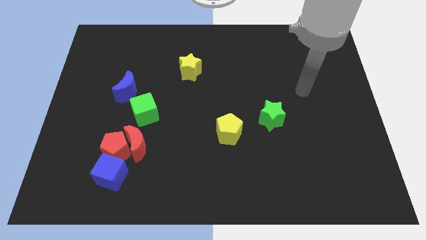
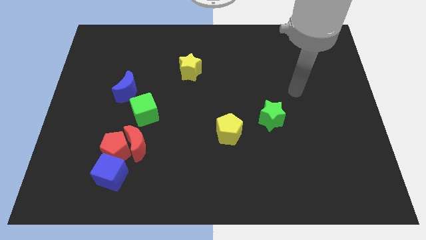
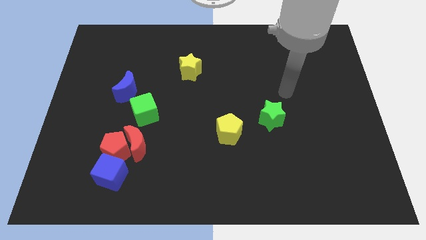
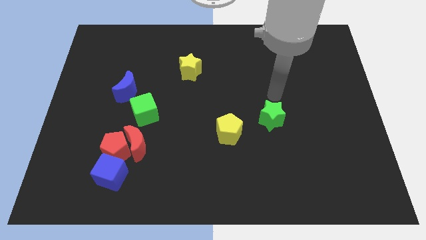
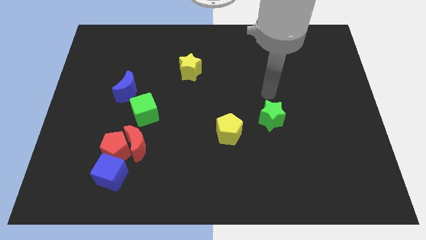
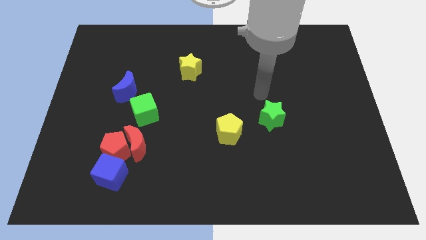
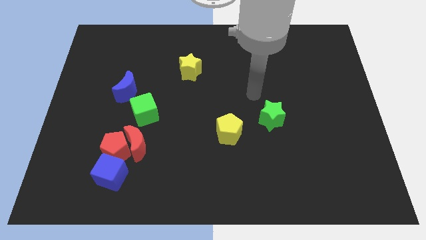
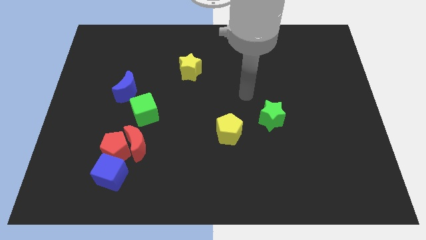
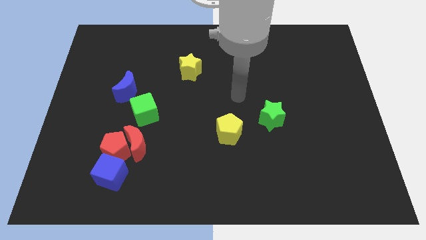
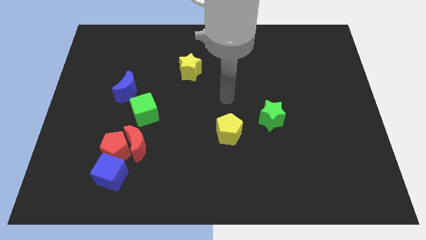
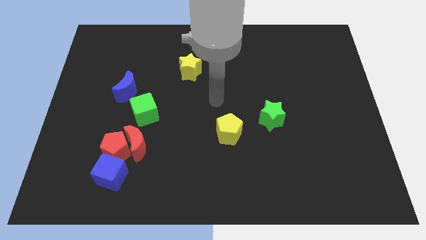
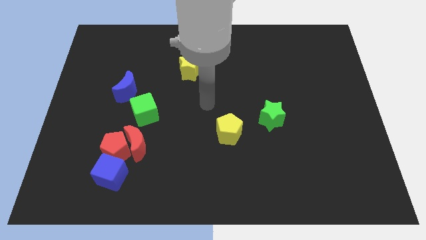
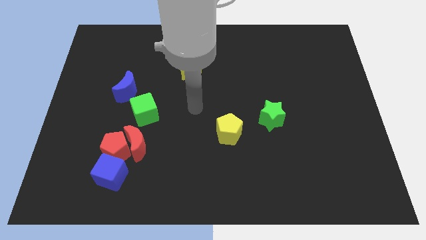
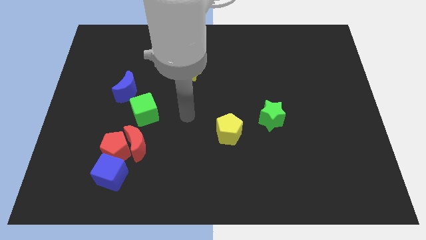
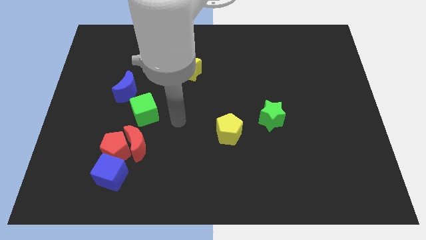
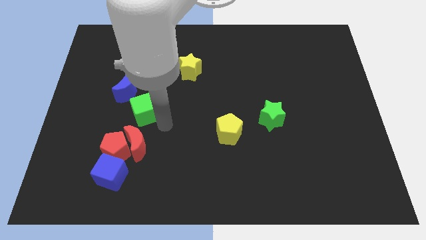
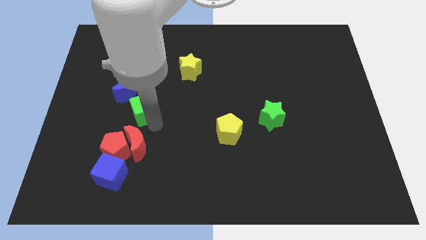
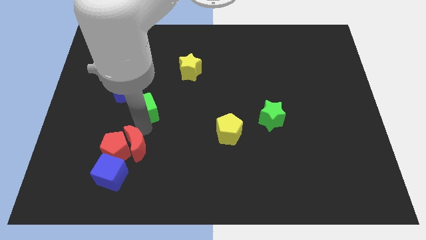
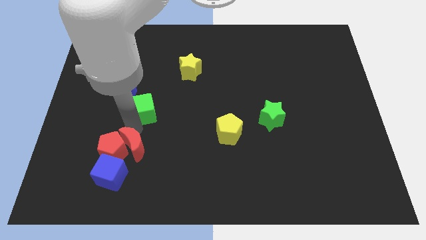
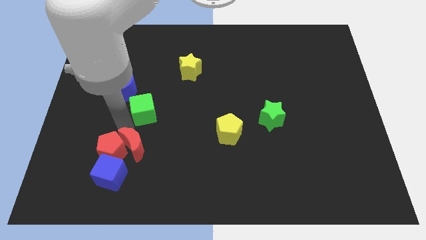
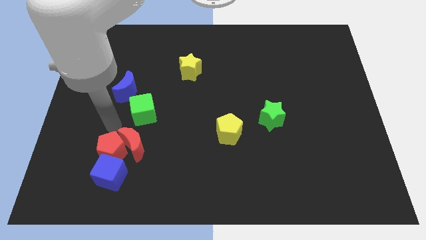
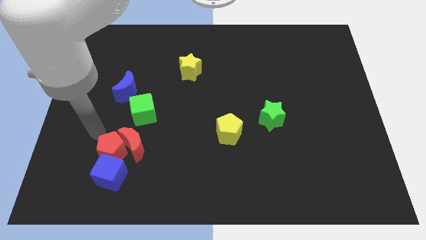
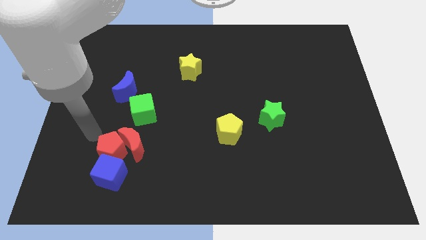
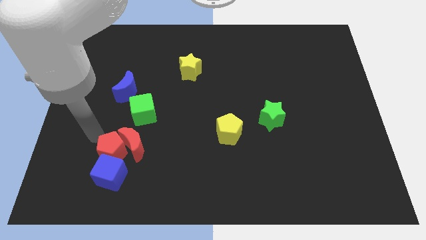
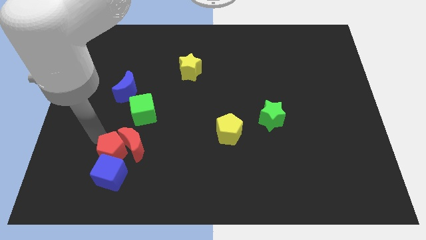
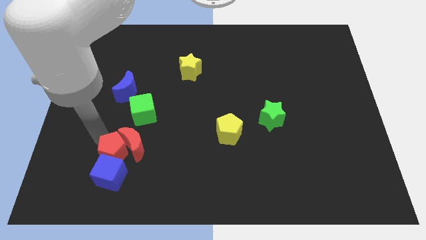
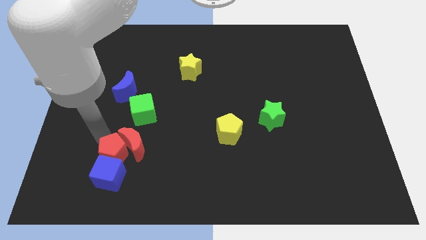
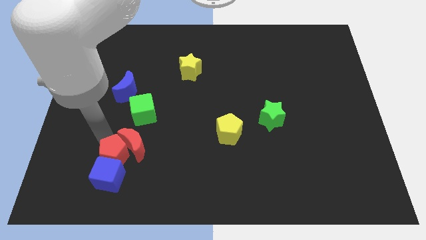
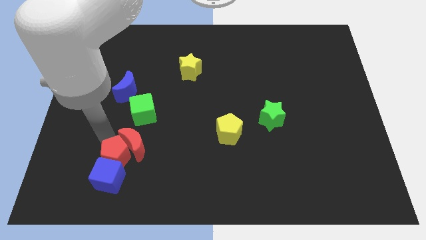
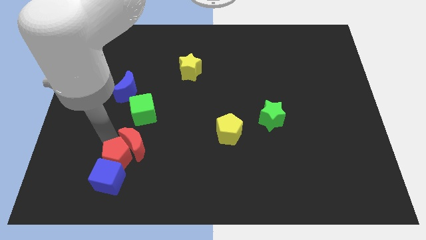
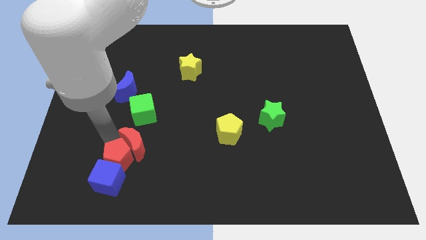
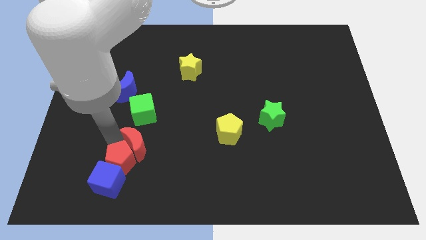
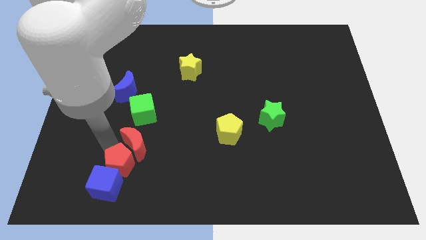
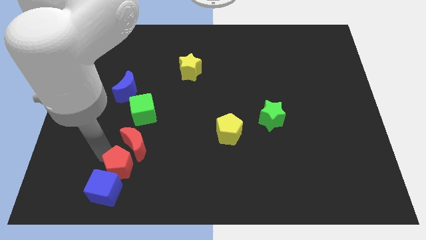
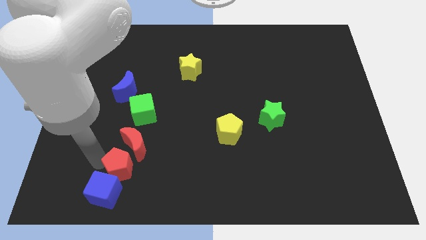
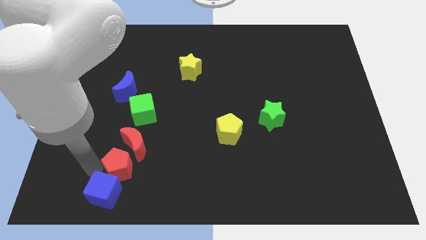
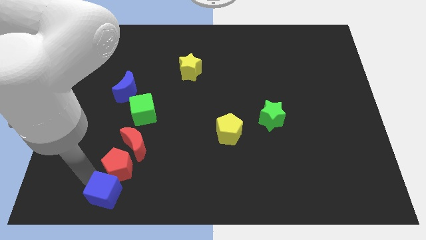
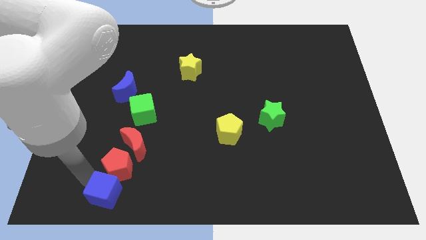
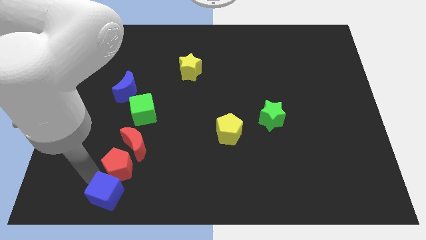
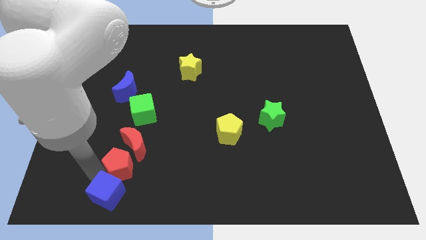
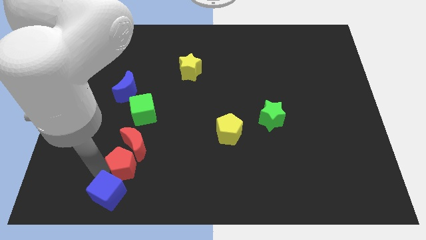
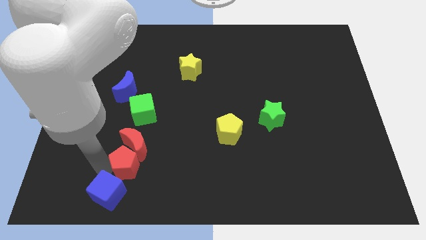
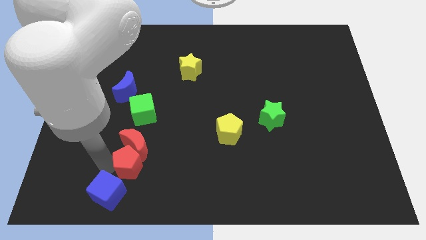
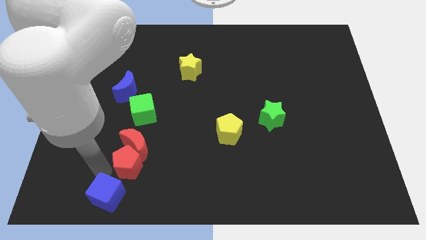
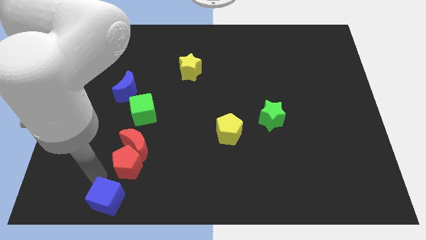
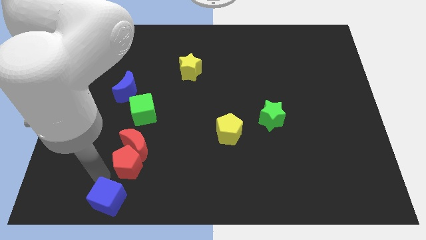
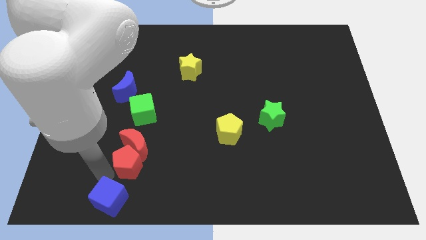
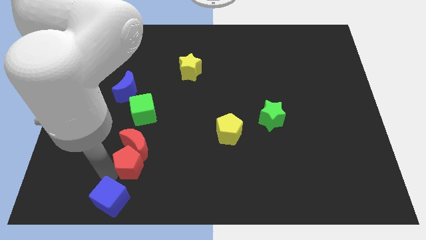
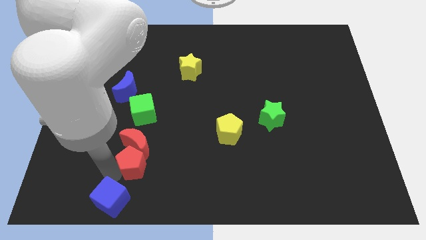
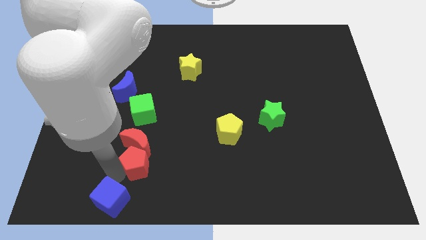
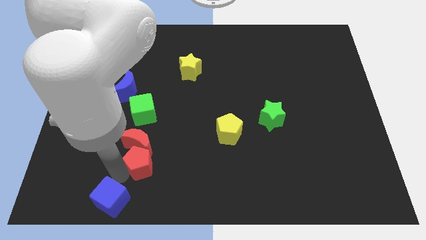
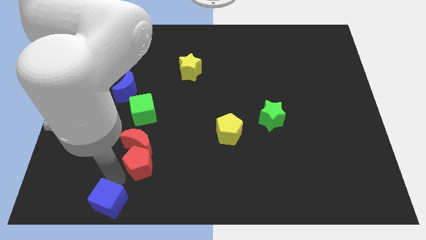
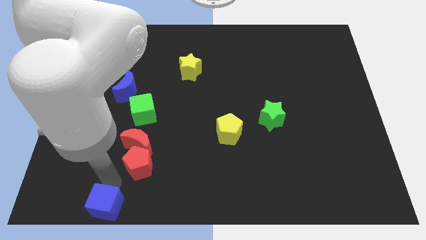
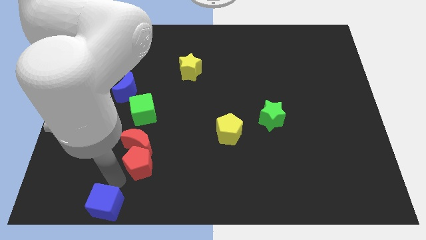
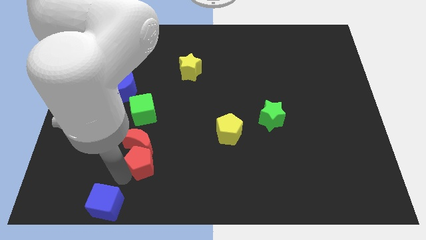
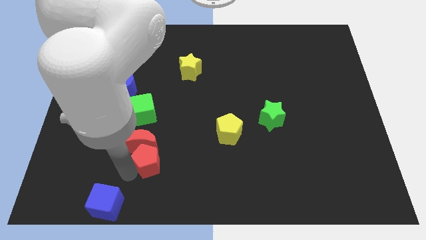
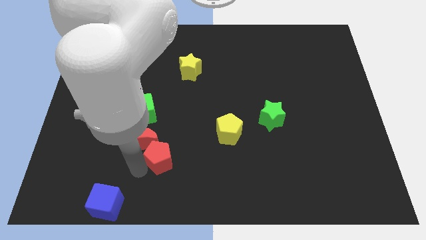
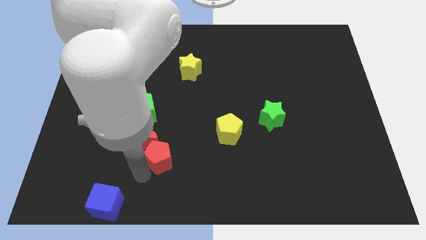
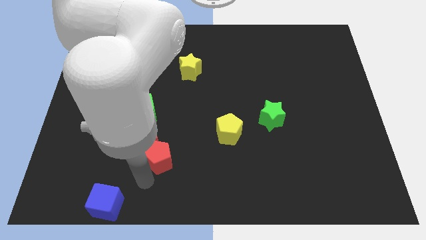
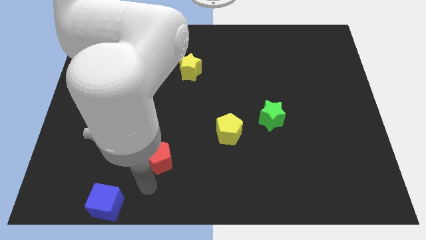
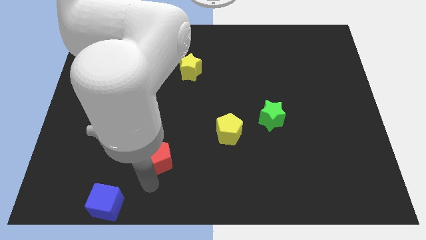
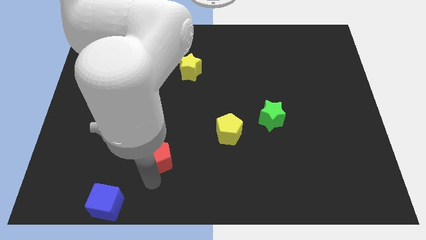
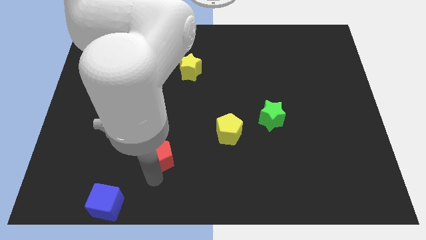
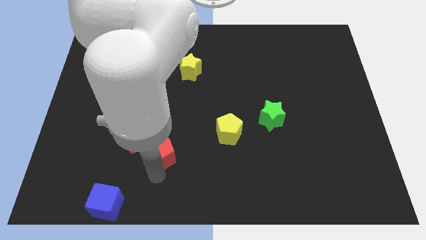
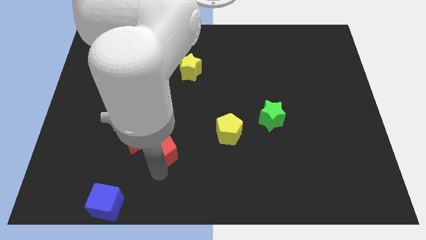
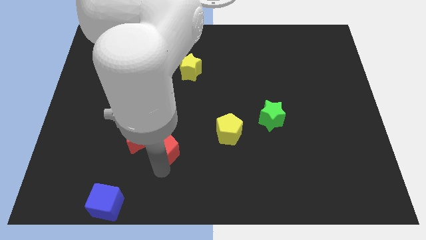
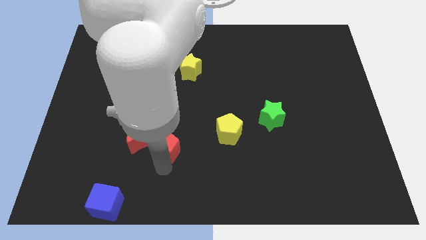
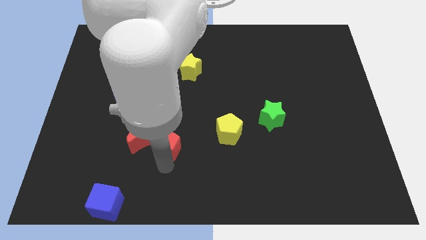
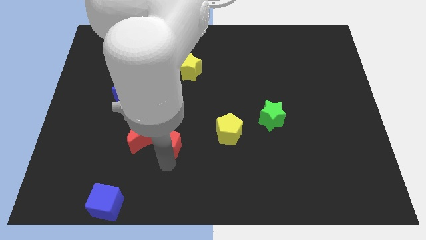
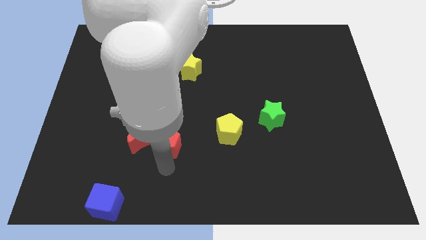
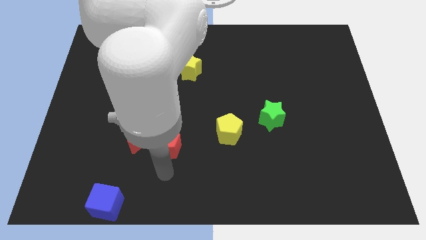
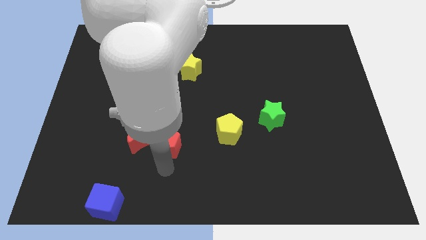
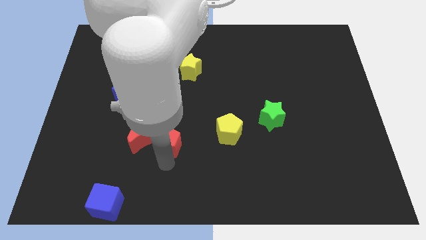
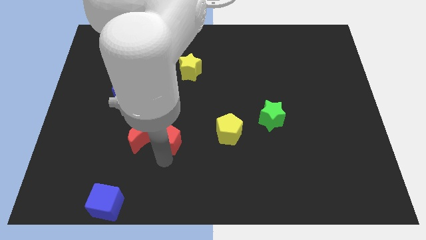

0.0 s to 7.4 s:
slightly slide the red pentagon upwards and then right

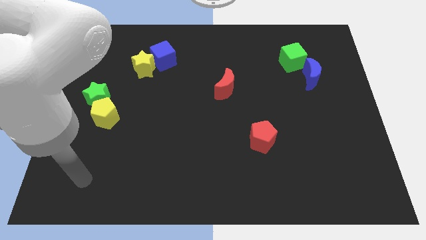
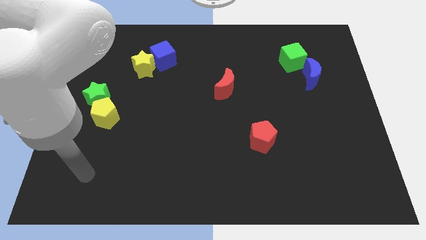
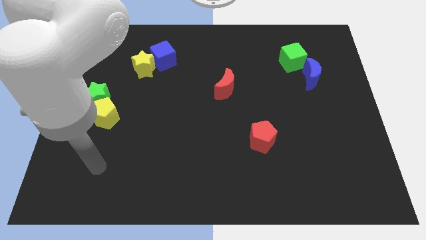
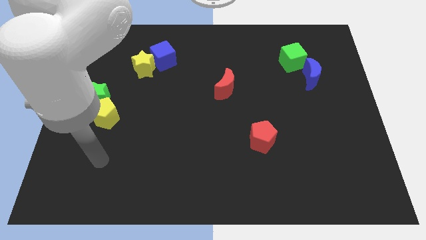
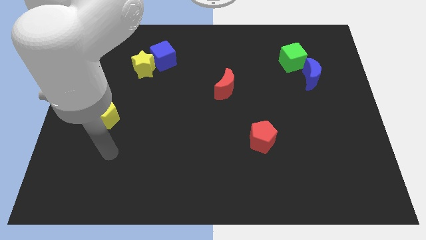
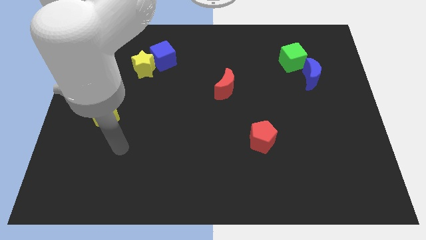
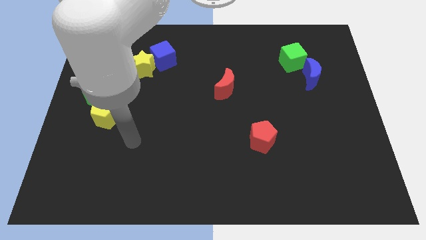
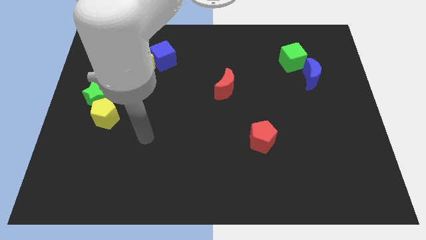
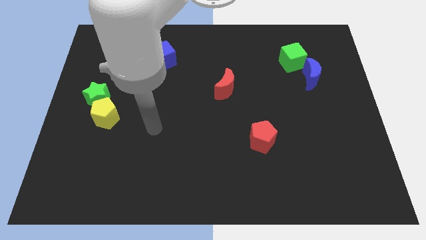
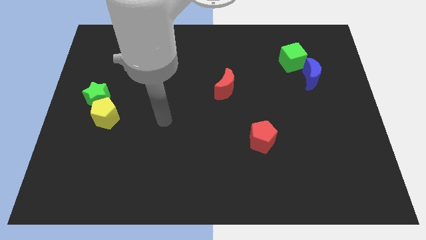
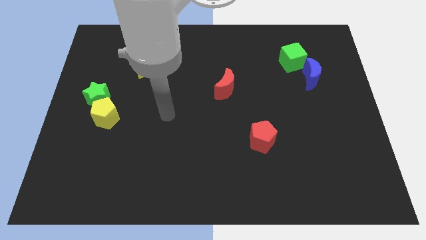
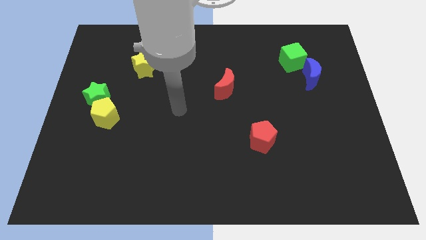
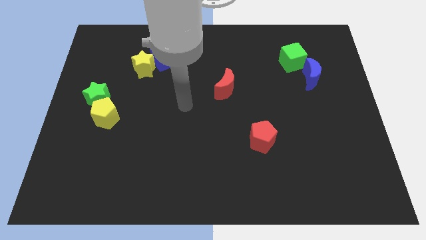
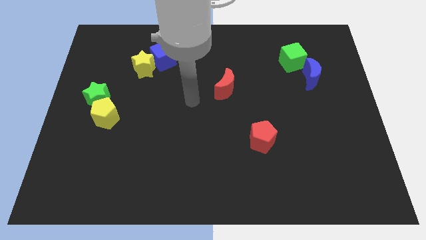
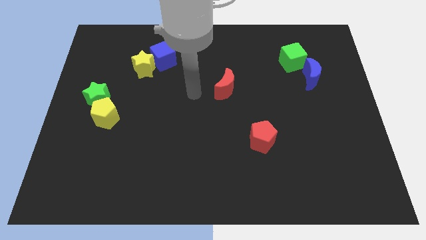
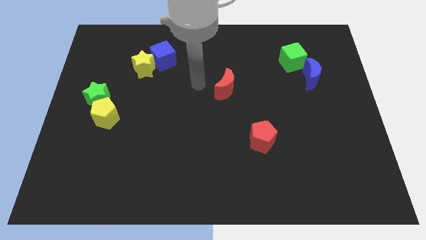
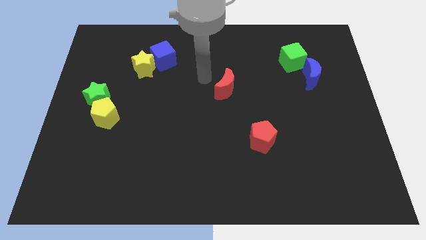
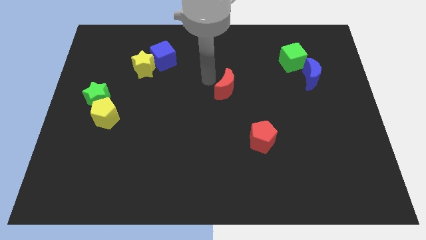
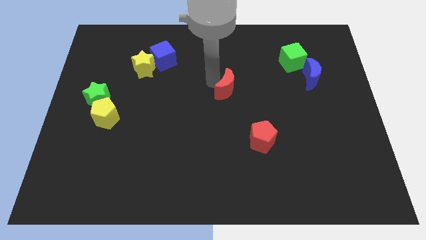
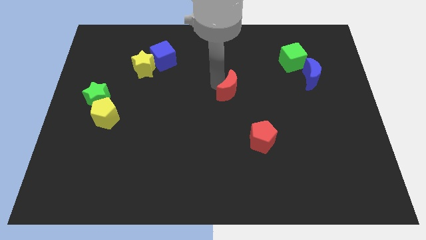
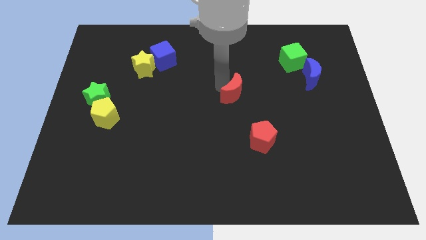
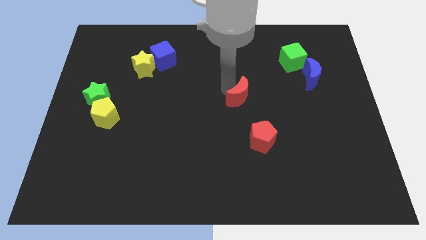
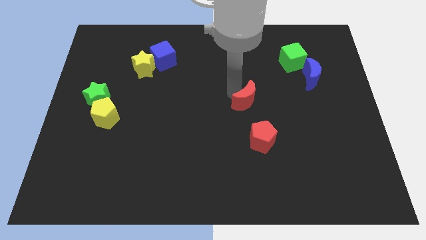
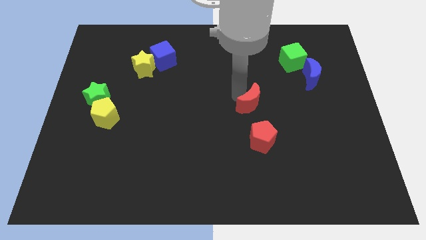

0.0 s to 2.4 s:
slide the red moon down and then to the right a little
